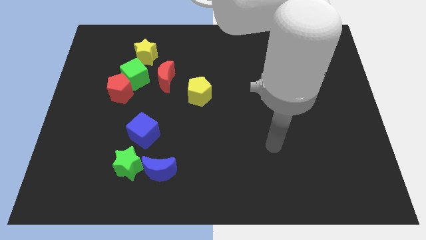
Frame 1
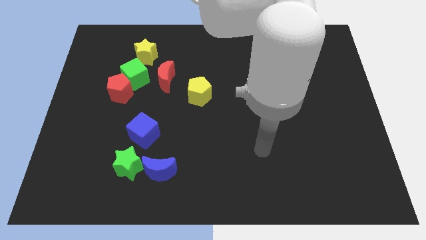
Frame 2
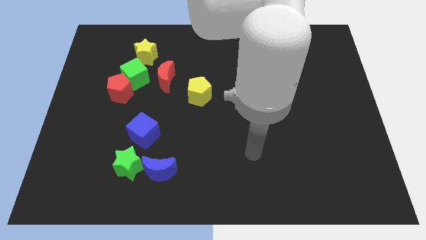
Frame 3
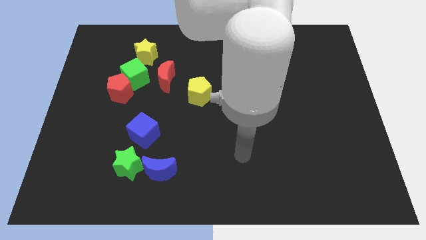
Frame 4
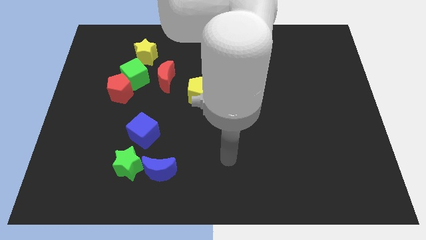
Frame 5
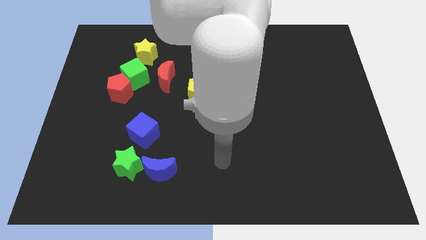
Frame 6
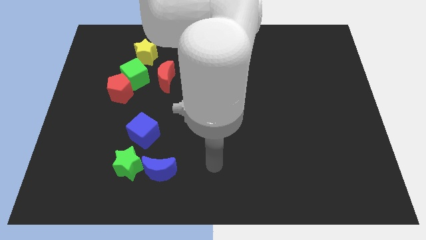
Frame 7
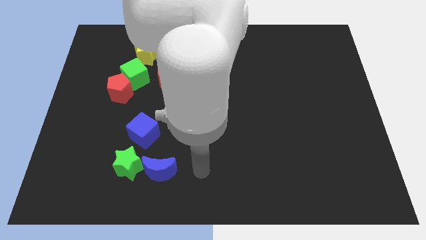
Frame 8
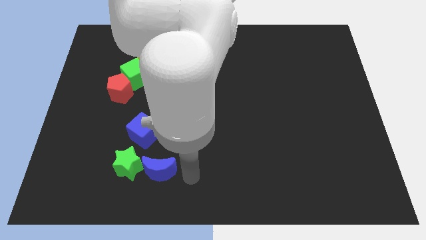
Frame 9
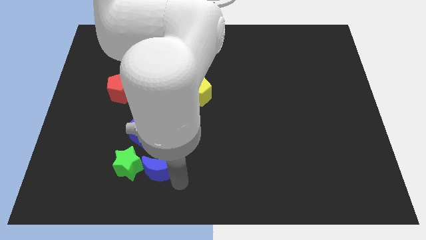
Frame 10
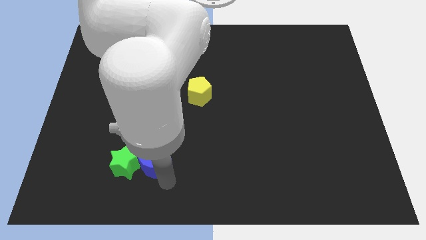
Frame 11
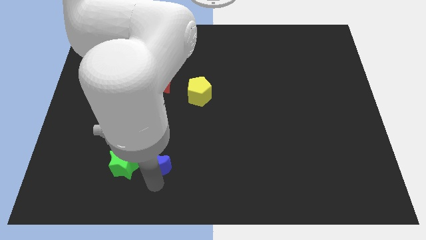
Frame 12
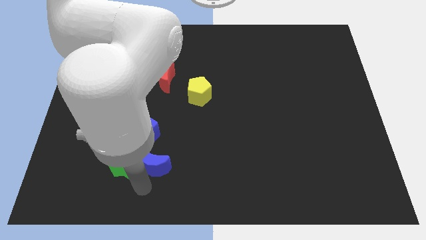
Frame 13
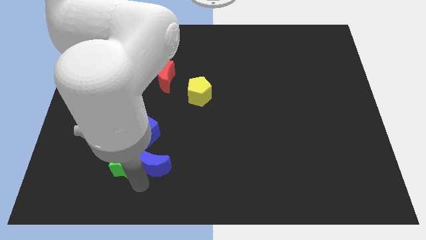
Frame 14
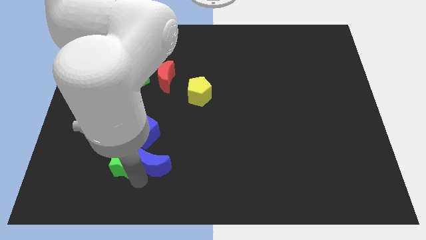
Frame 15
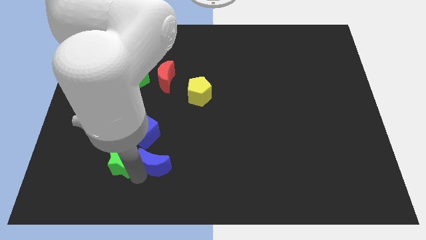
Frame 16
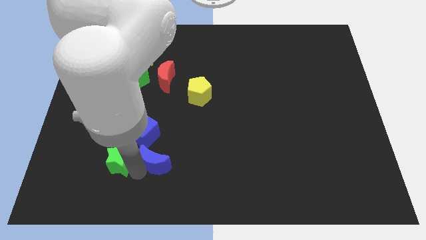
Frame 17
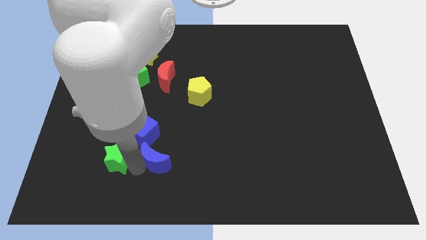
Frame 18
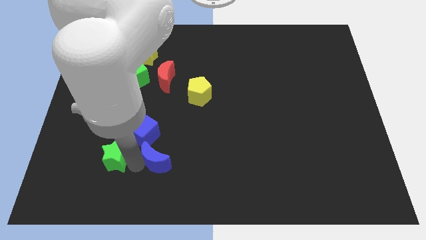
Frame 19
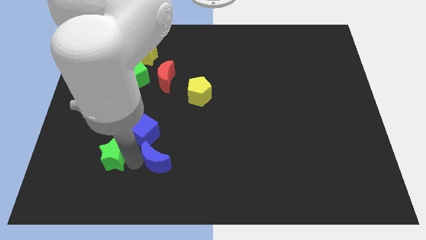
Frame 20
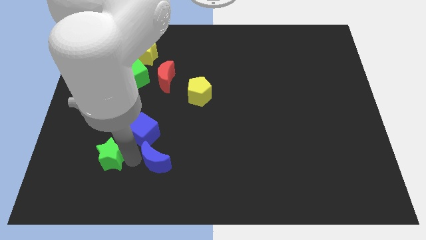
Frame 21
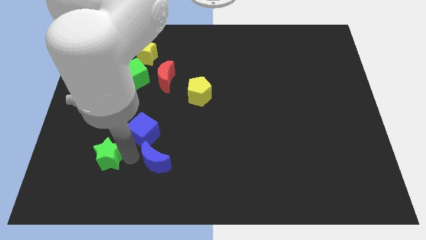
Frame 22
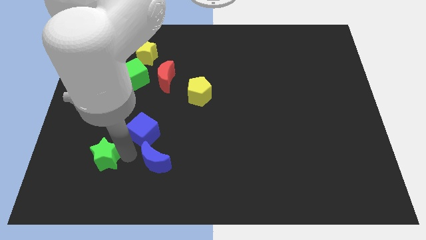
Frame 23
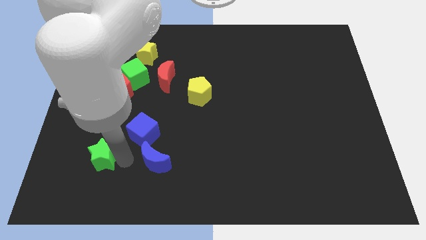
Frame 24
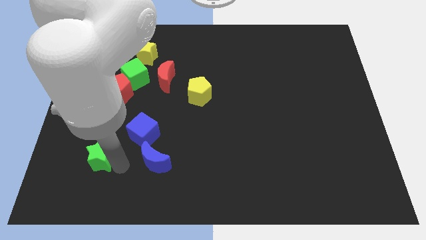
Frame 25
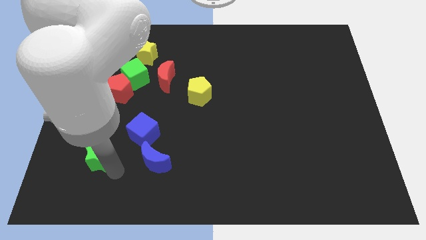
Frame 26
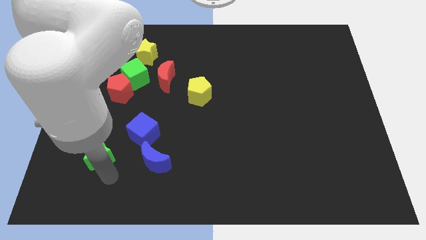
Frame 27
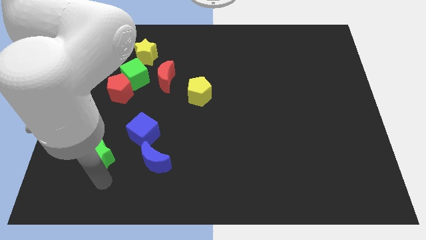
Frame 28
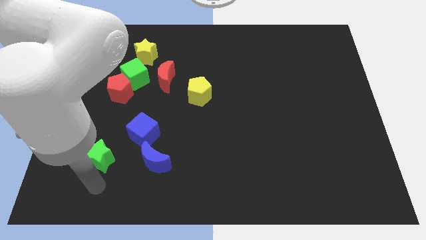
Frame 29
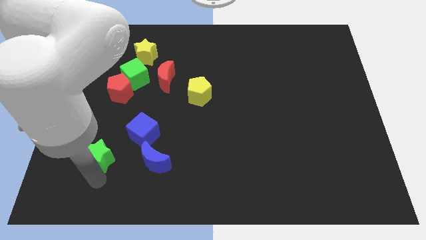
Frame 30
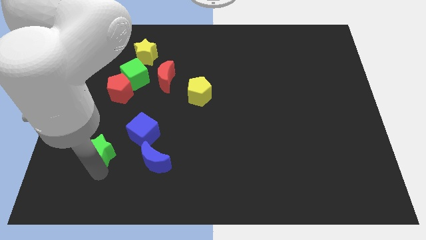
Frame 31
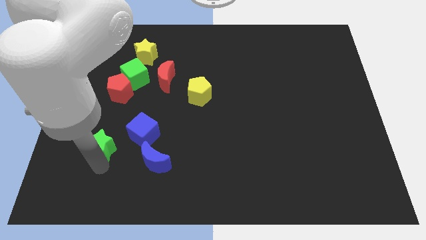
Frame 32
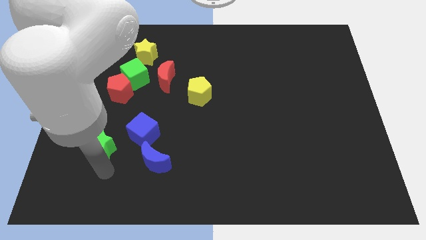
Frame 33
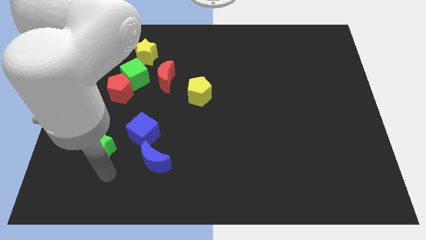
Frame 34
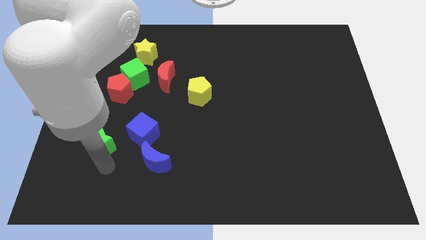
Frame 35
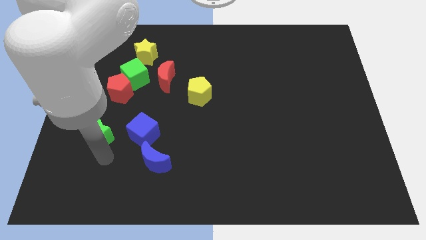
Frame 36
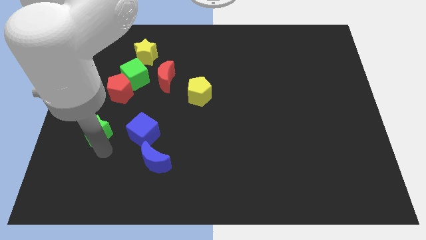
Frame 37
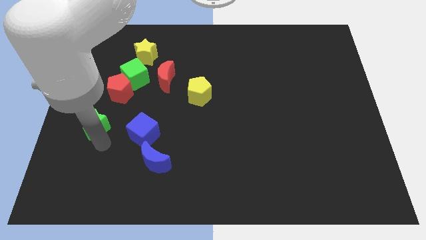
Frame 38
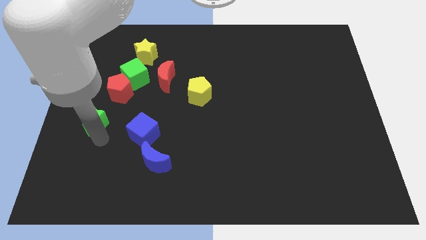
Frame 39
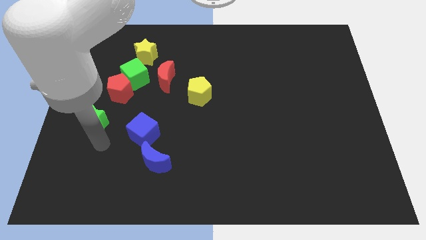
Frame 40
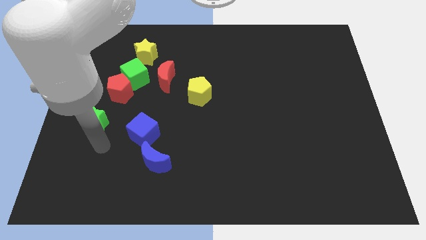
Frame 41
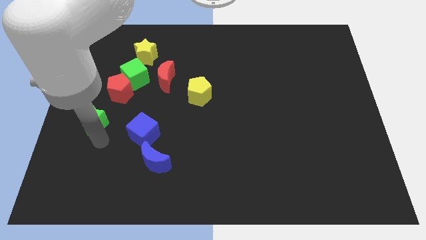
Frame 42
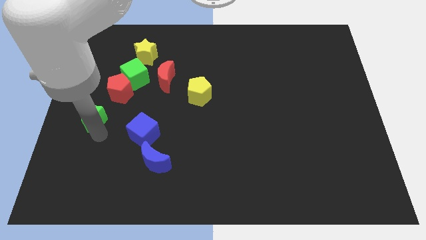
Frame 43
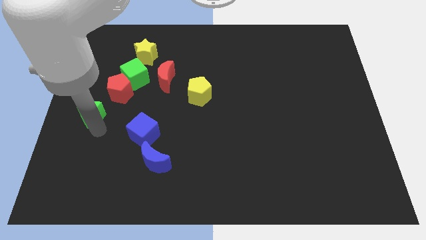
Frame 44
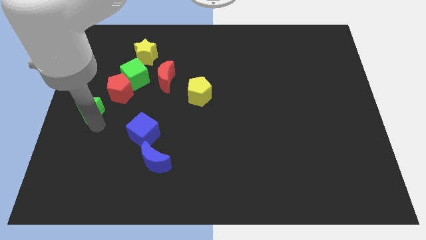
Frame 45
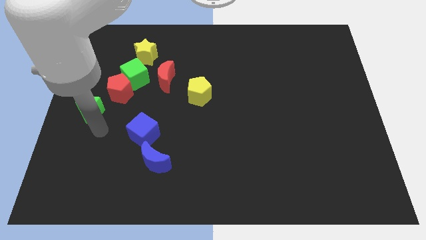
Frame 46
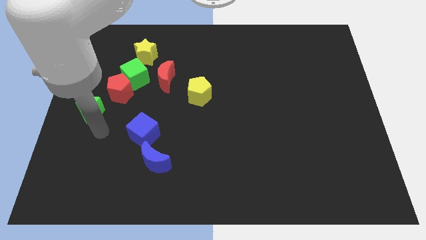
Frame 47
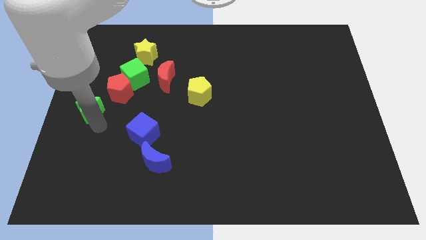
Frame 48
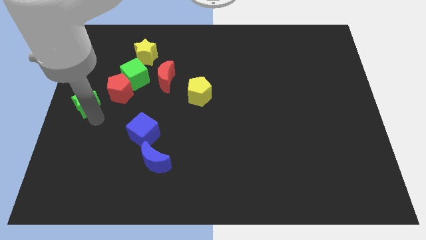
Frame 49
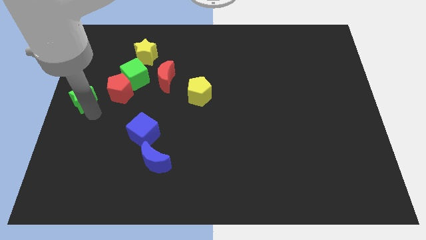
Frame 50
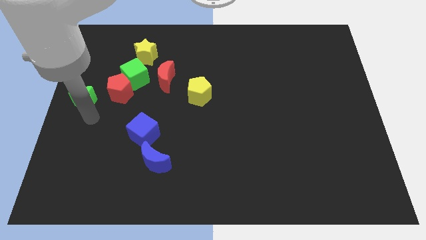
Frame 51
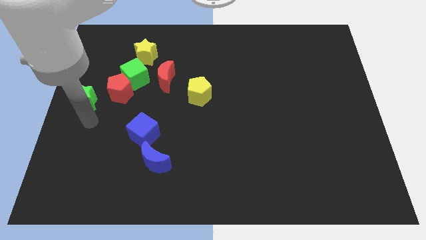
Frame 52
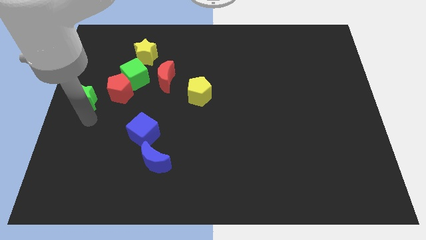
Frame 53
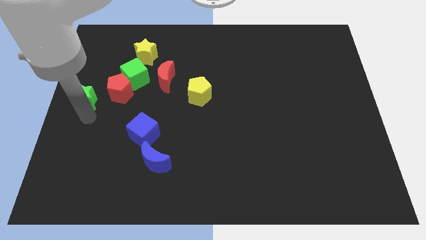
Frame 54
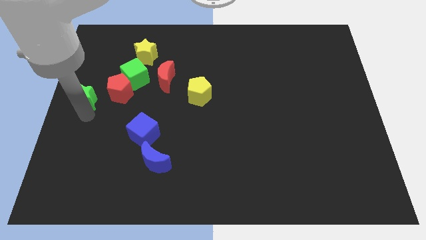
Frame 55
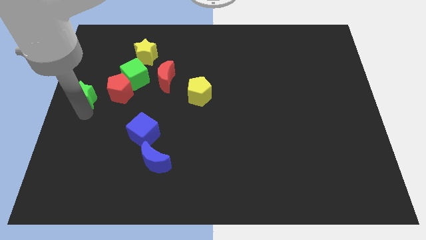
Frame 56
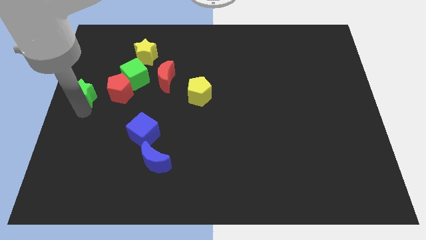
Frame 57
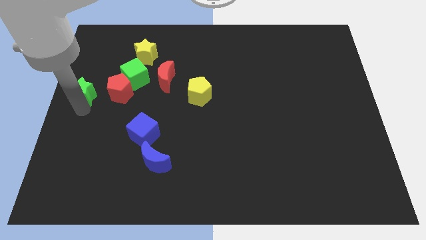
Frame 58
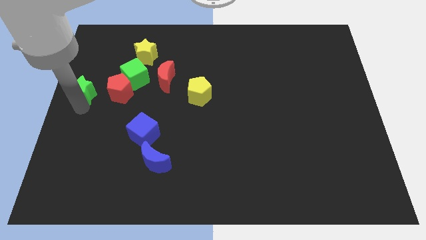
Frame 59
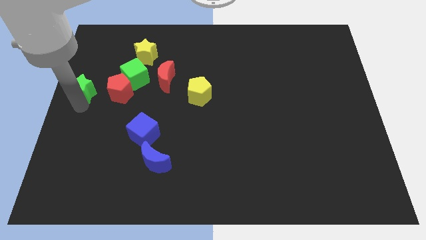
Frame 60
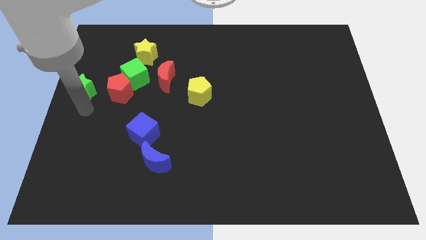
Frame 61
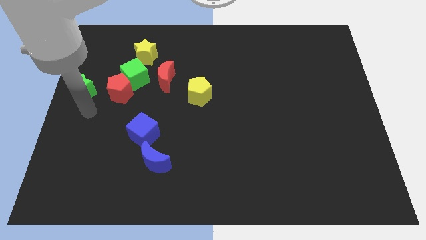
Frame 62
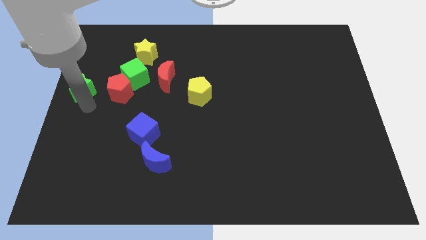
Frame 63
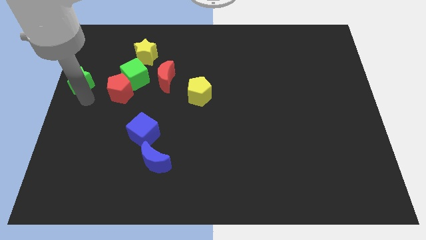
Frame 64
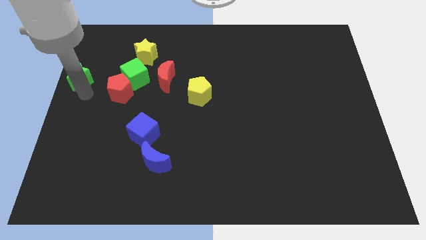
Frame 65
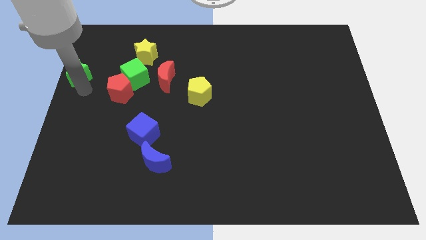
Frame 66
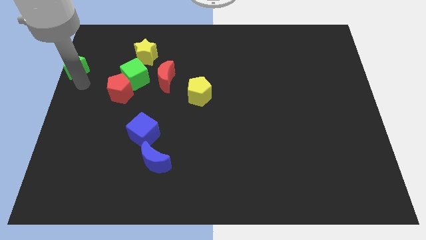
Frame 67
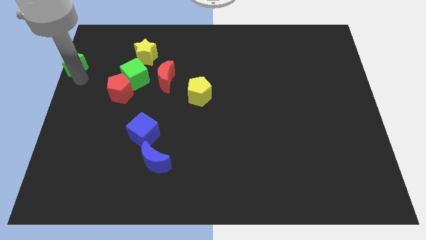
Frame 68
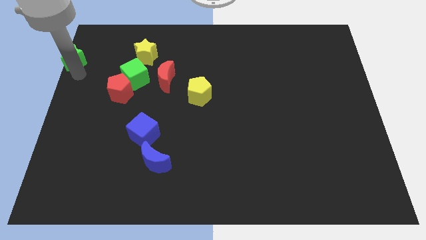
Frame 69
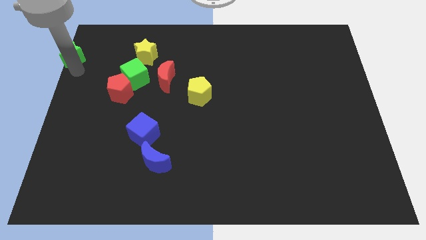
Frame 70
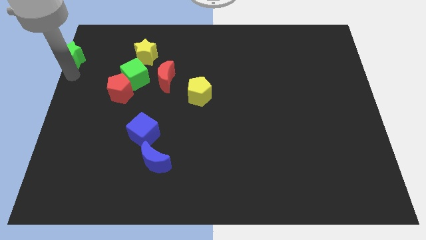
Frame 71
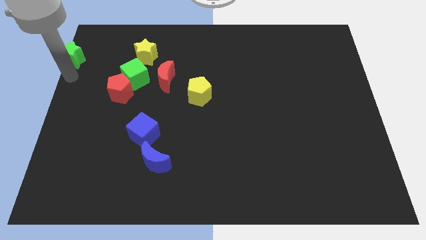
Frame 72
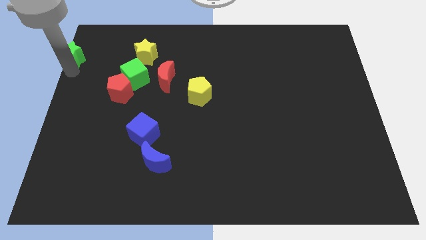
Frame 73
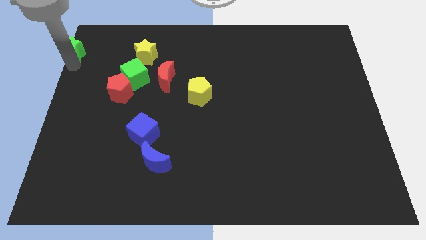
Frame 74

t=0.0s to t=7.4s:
move the green star to the top left corner
